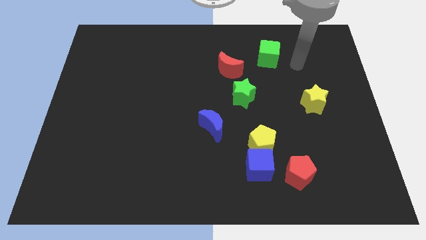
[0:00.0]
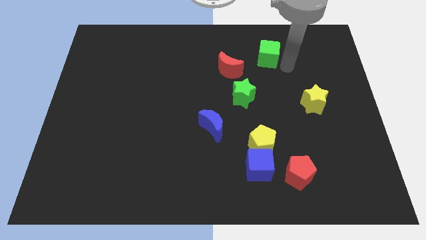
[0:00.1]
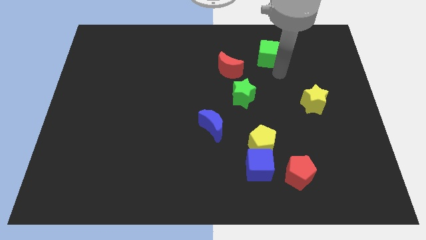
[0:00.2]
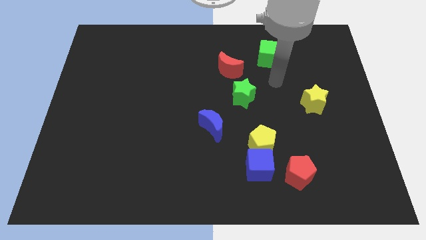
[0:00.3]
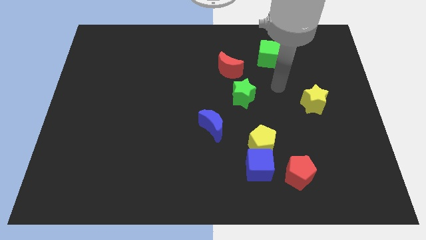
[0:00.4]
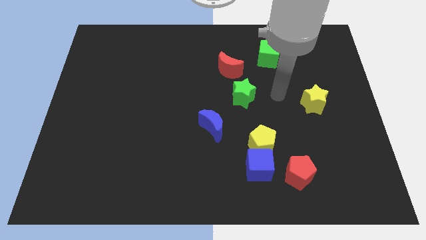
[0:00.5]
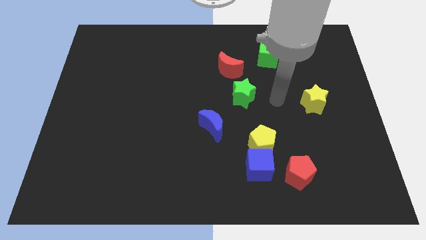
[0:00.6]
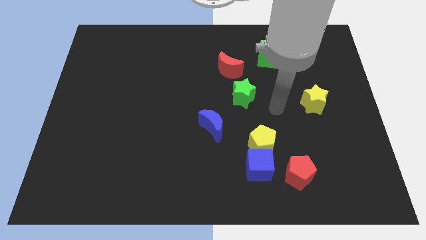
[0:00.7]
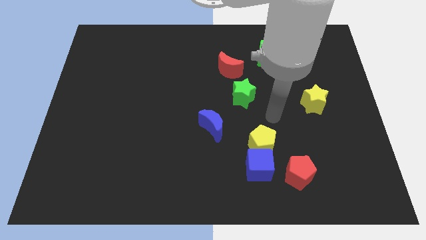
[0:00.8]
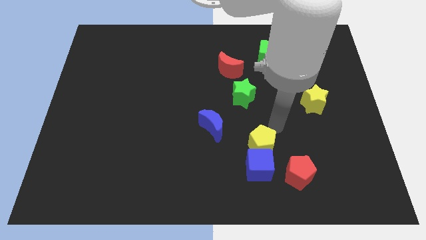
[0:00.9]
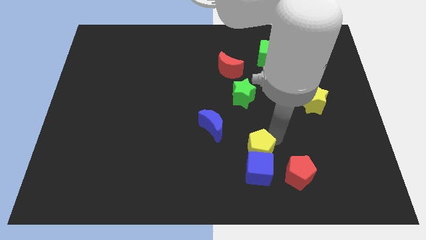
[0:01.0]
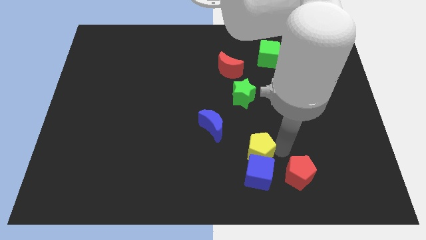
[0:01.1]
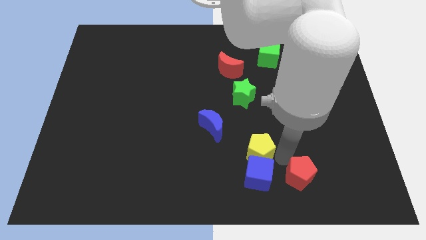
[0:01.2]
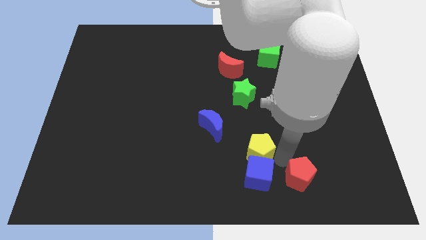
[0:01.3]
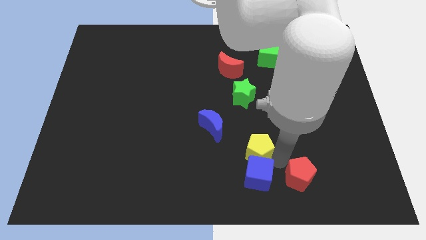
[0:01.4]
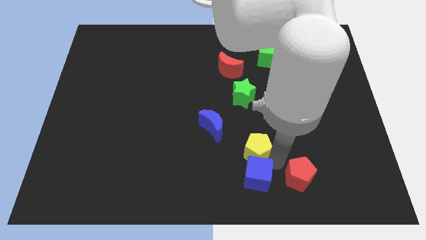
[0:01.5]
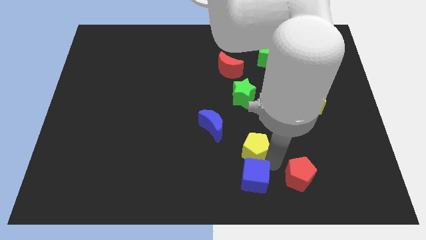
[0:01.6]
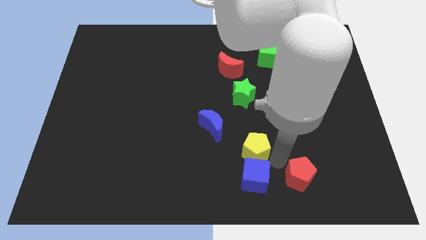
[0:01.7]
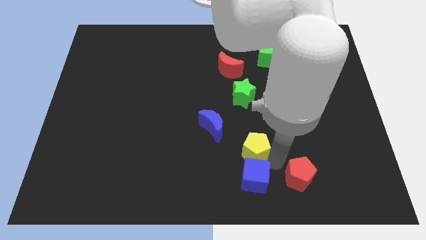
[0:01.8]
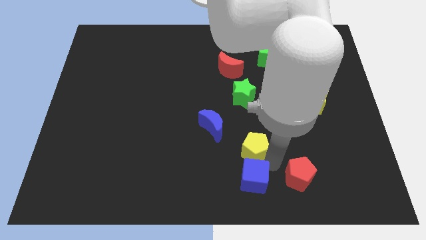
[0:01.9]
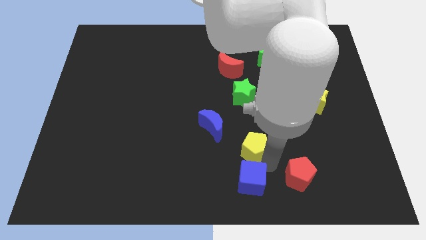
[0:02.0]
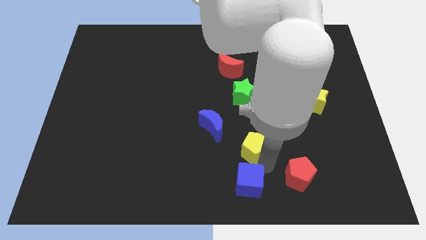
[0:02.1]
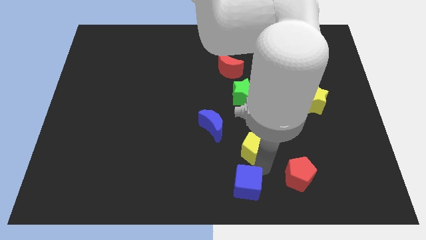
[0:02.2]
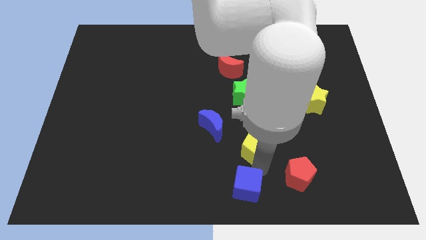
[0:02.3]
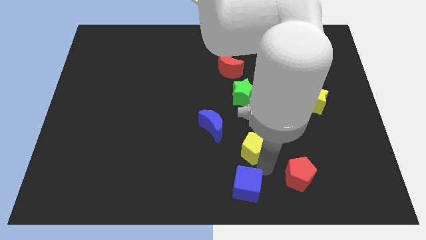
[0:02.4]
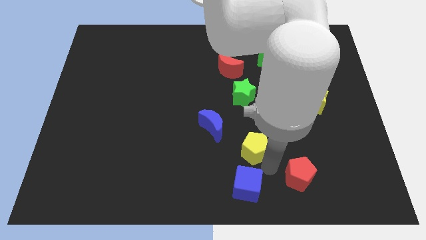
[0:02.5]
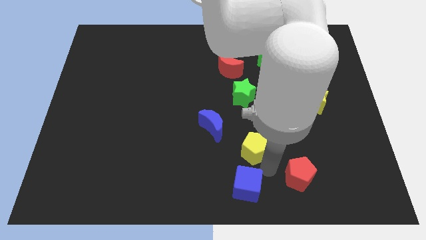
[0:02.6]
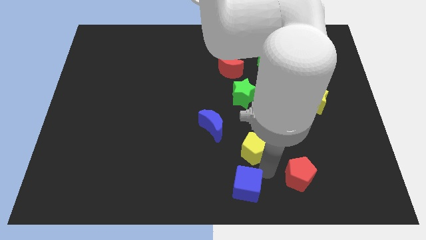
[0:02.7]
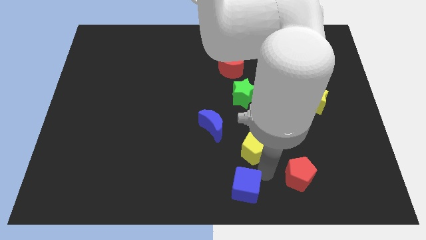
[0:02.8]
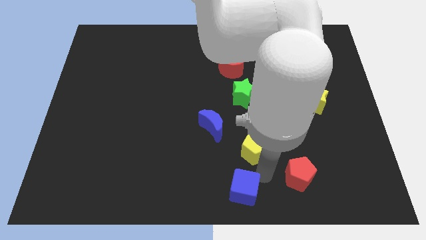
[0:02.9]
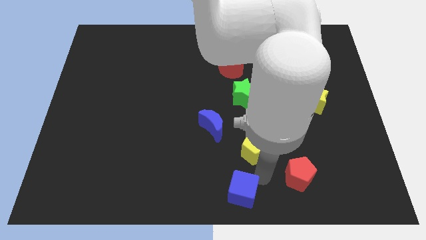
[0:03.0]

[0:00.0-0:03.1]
move the blue cube away from the yellow pentagon and red pentagon

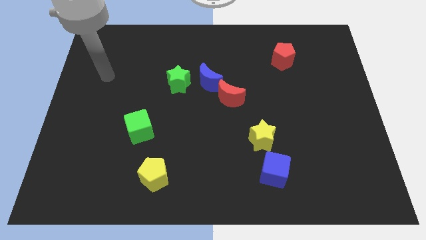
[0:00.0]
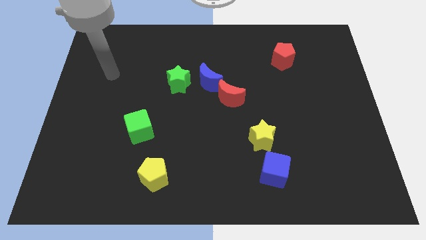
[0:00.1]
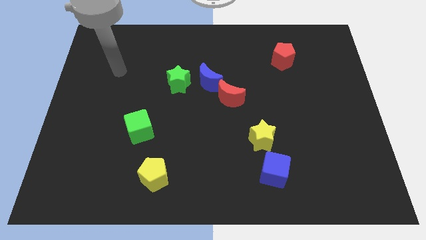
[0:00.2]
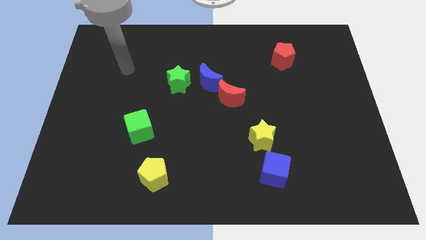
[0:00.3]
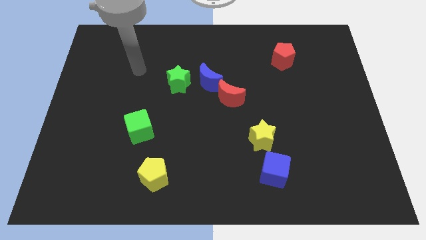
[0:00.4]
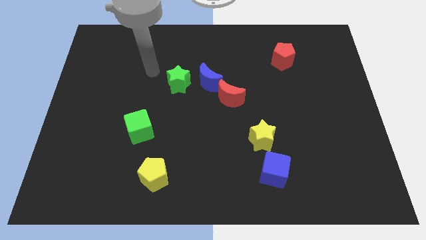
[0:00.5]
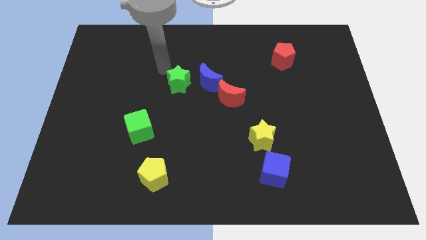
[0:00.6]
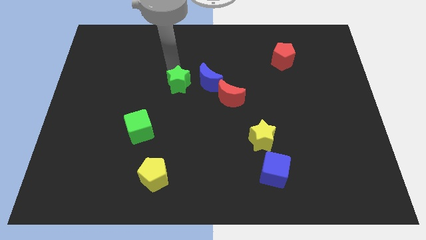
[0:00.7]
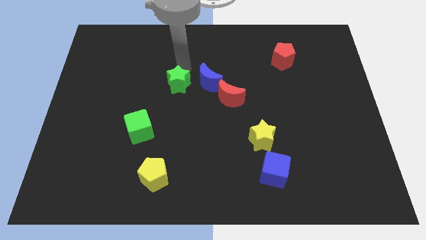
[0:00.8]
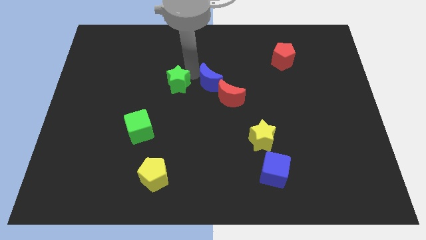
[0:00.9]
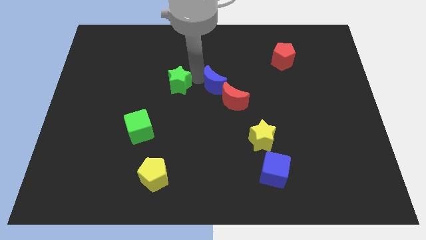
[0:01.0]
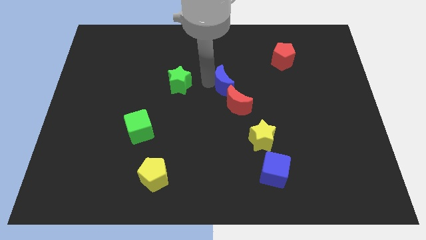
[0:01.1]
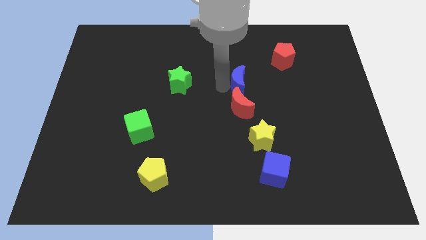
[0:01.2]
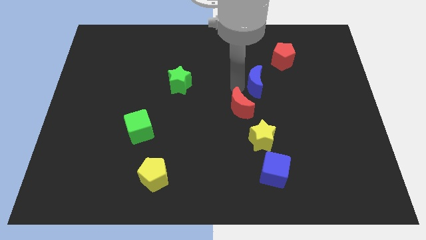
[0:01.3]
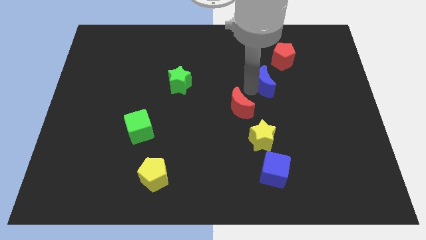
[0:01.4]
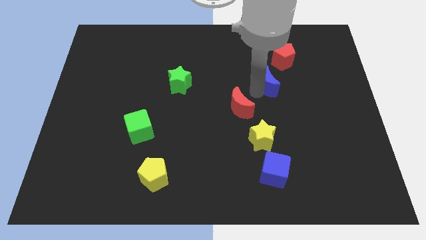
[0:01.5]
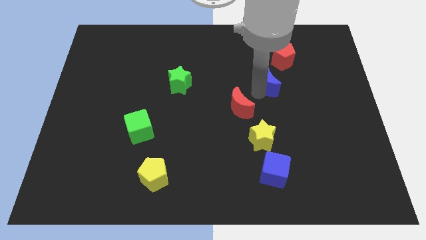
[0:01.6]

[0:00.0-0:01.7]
pull the red moon apart from the blue moon

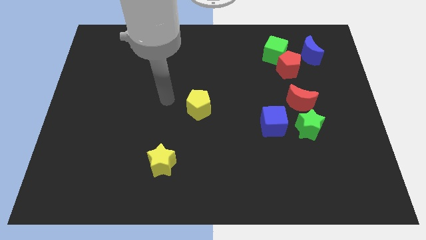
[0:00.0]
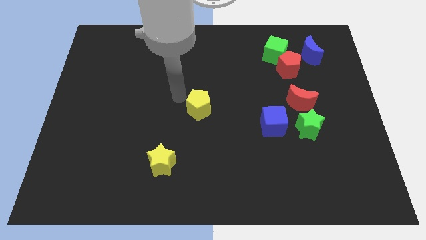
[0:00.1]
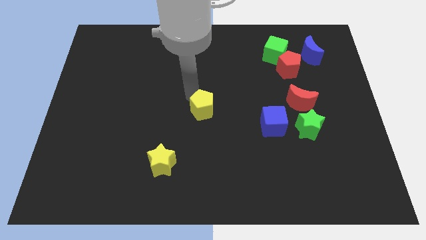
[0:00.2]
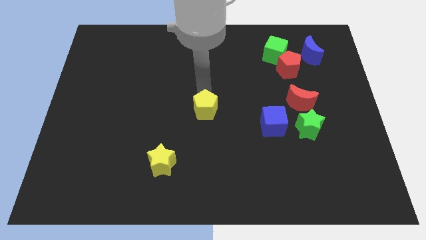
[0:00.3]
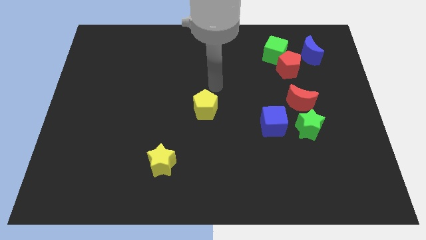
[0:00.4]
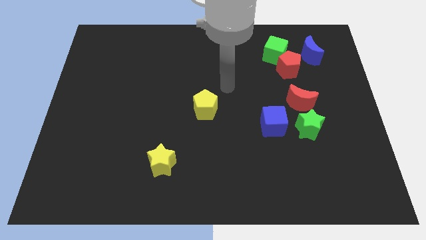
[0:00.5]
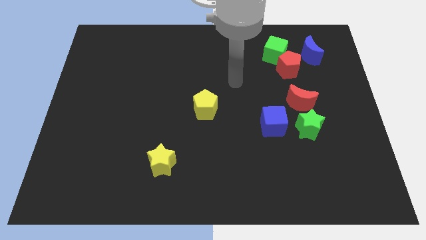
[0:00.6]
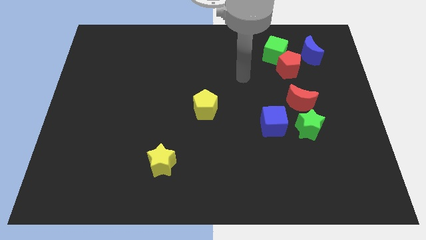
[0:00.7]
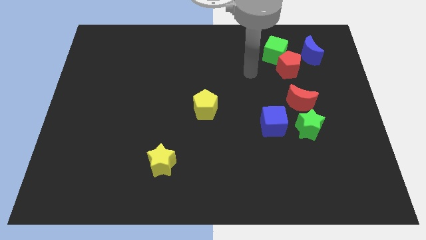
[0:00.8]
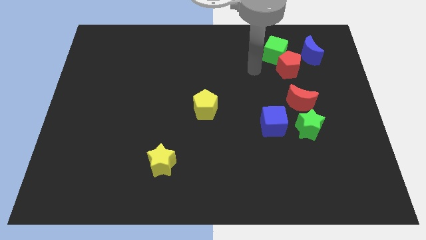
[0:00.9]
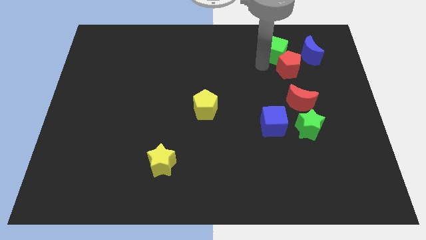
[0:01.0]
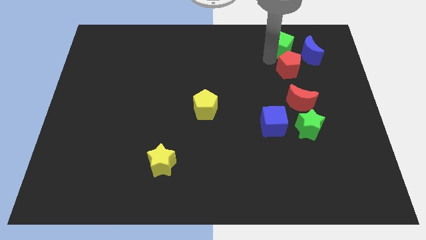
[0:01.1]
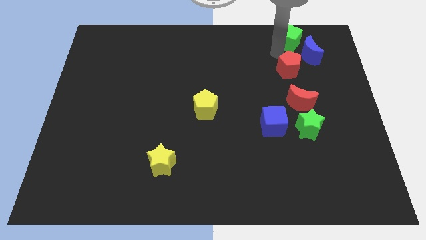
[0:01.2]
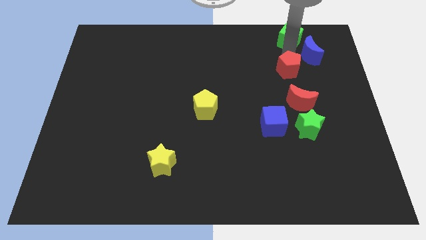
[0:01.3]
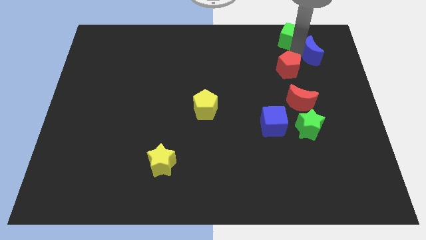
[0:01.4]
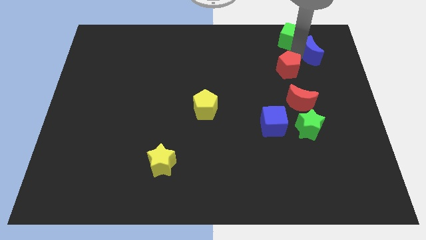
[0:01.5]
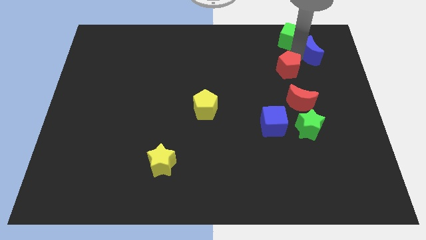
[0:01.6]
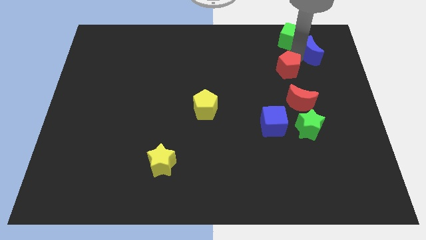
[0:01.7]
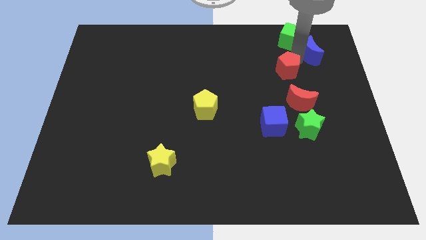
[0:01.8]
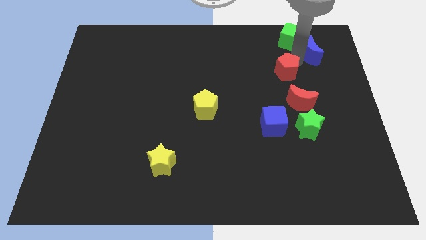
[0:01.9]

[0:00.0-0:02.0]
pull the red pentagon apart from the green cube and blue moon

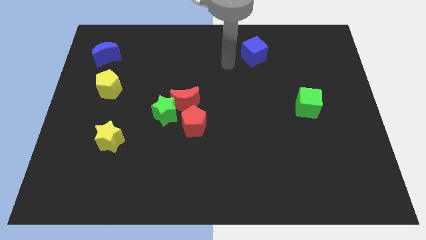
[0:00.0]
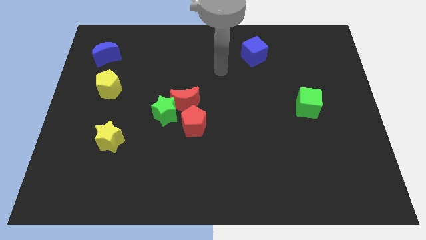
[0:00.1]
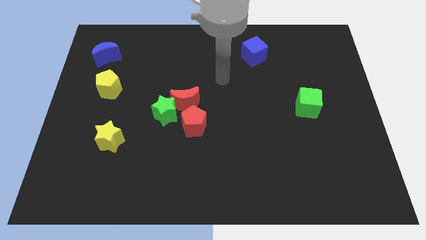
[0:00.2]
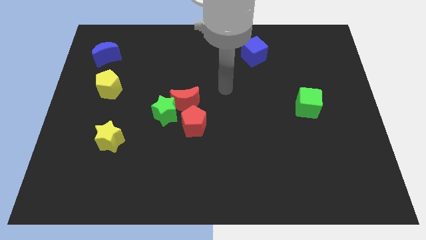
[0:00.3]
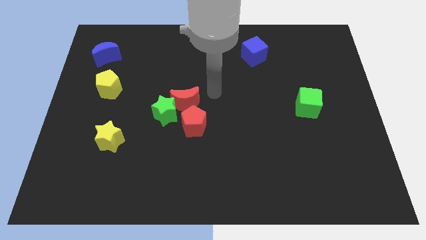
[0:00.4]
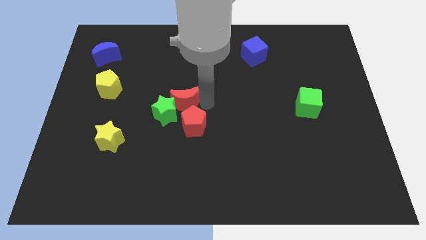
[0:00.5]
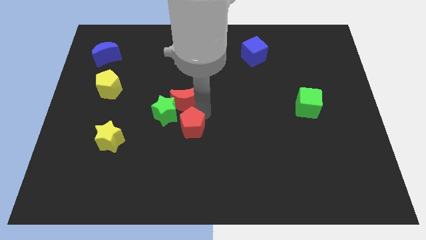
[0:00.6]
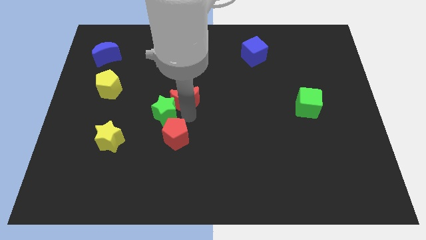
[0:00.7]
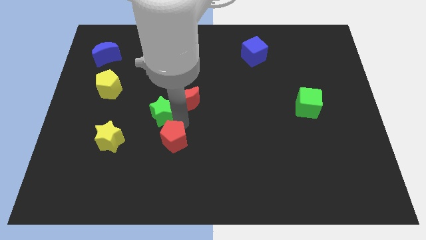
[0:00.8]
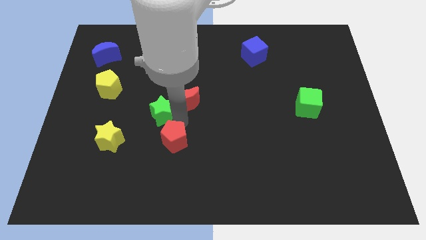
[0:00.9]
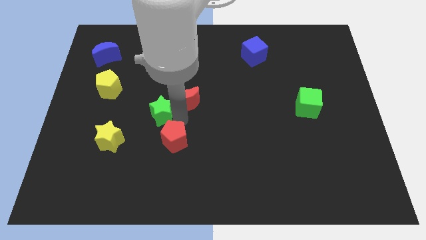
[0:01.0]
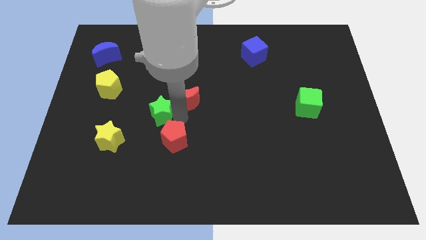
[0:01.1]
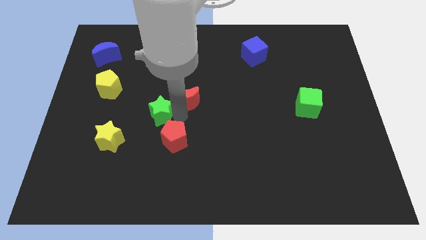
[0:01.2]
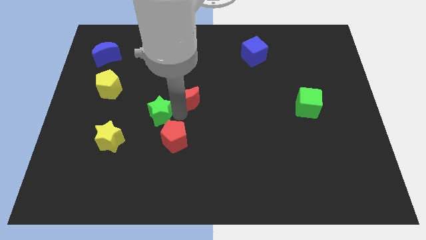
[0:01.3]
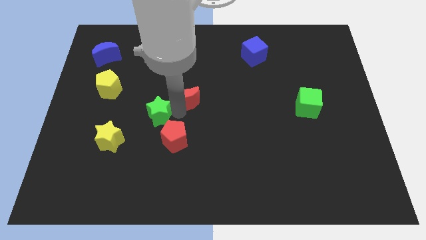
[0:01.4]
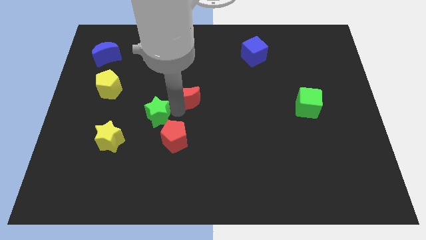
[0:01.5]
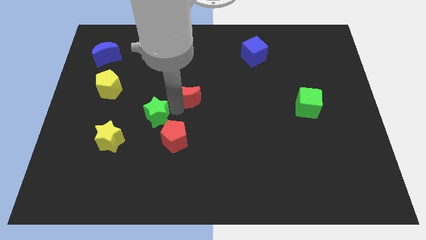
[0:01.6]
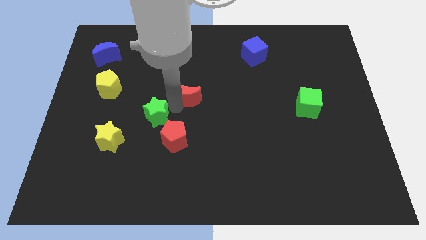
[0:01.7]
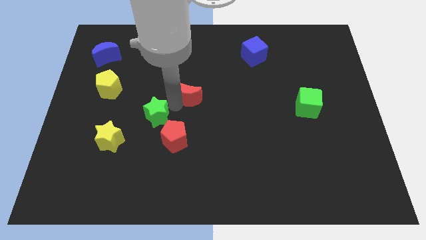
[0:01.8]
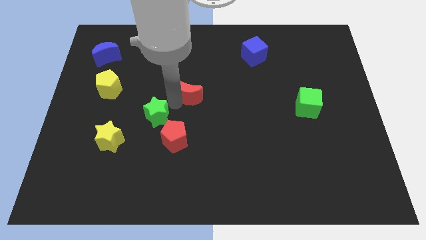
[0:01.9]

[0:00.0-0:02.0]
move the red moon away from the green star and red pentagon

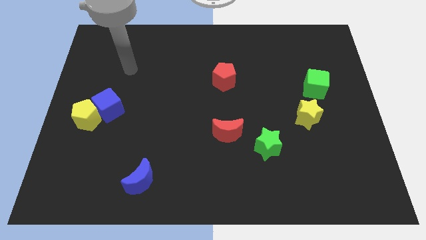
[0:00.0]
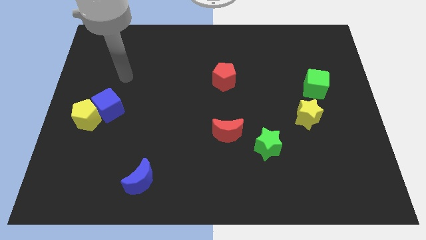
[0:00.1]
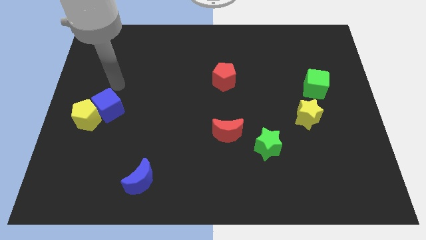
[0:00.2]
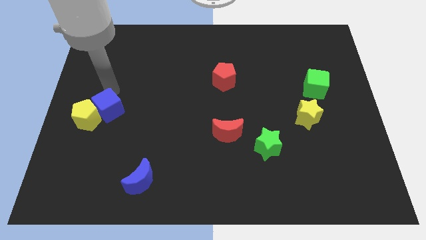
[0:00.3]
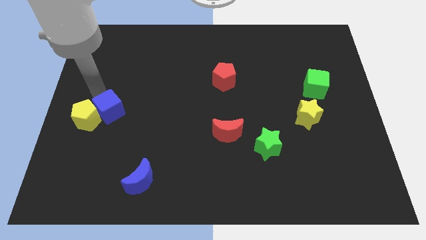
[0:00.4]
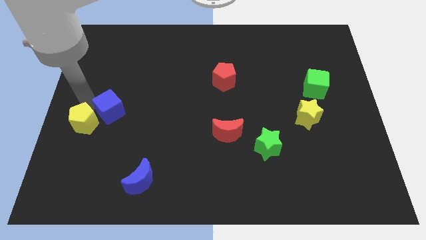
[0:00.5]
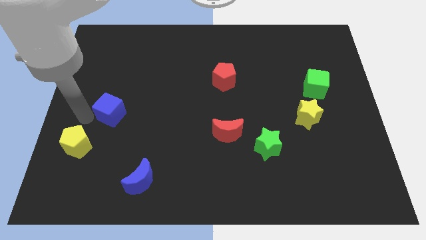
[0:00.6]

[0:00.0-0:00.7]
separate the blue cube from the yellow pentagon
